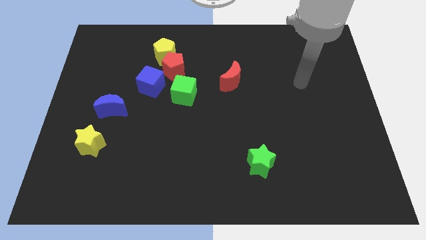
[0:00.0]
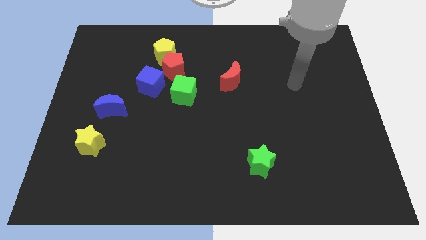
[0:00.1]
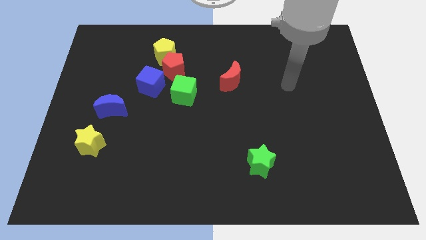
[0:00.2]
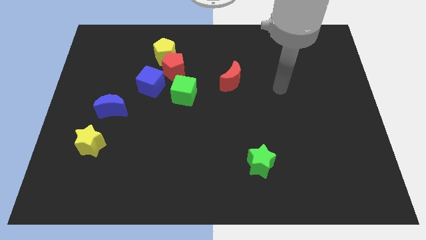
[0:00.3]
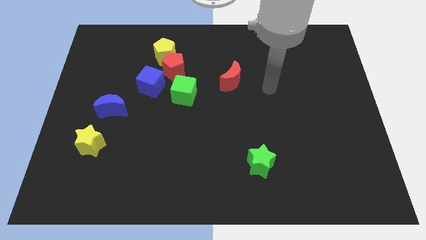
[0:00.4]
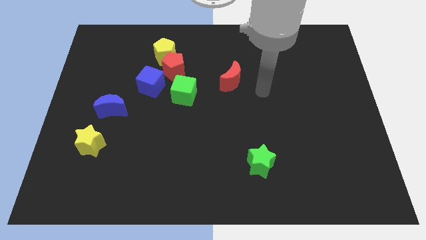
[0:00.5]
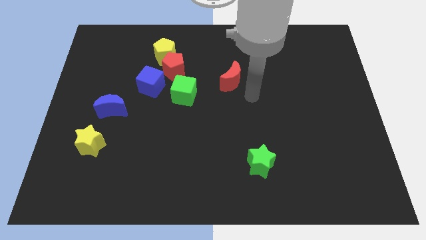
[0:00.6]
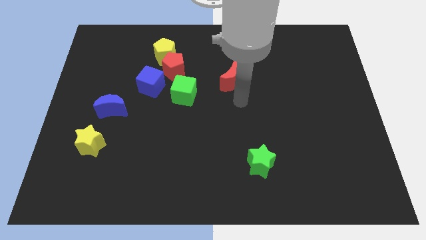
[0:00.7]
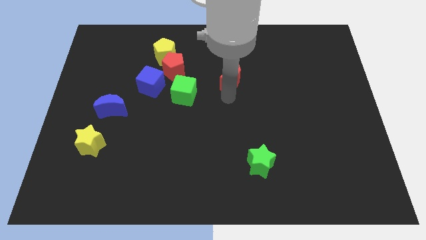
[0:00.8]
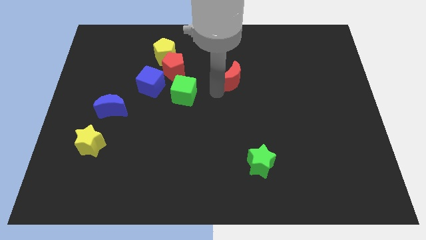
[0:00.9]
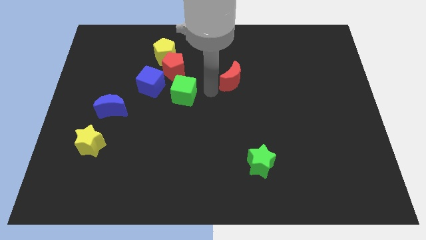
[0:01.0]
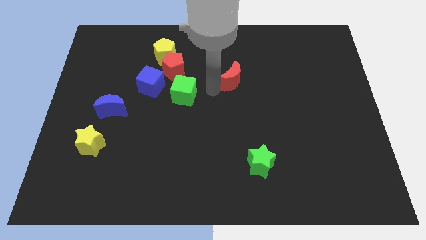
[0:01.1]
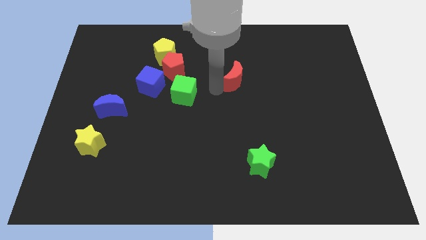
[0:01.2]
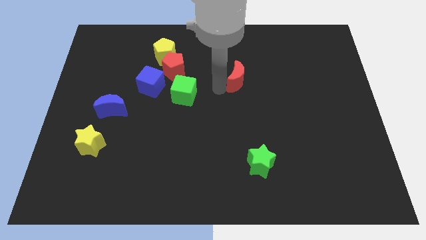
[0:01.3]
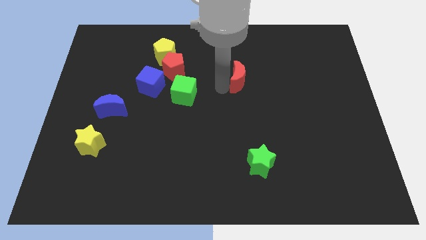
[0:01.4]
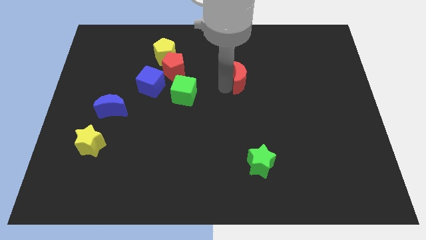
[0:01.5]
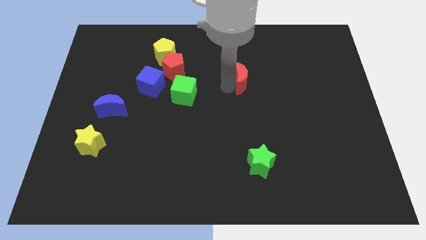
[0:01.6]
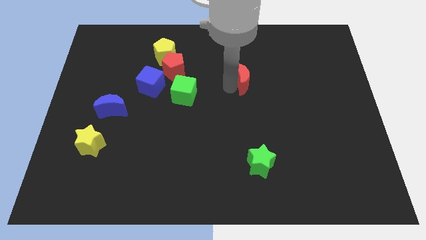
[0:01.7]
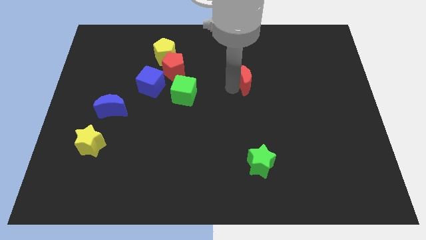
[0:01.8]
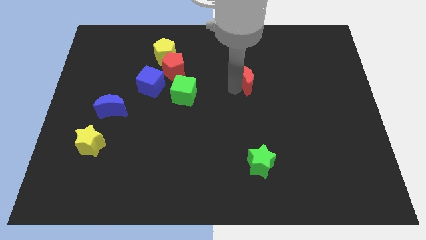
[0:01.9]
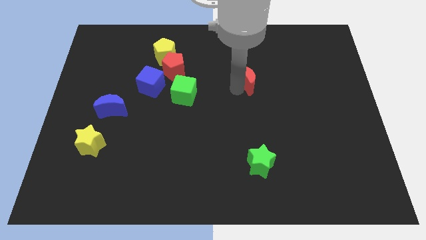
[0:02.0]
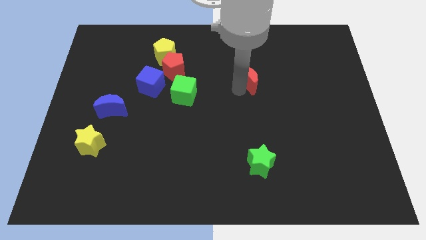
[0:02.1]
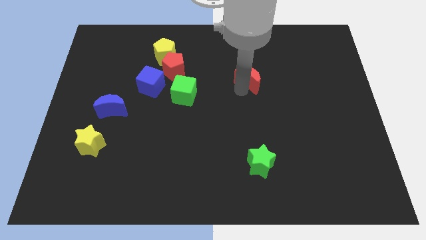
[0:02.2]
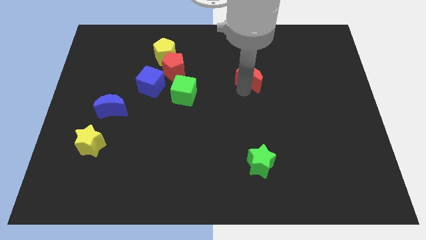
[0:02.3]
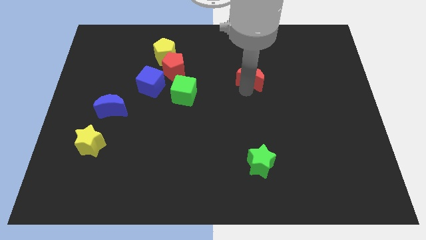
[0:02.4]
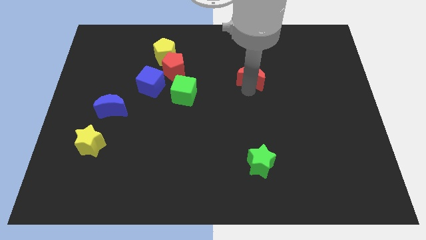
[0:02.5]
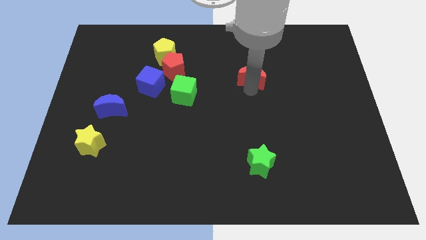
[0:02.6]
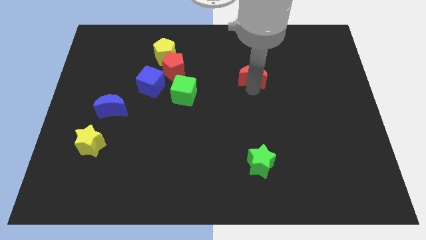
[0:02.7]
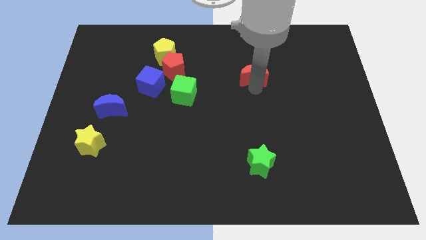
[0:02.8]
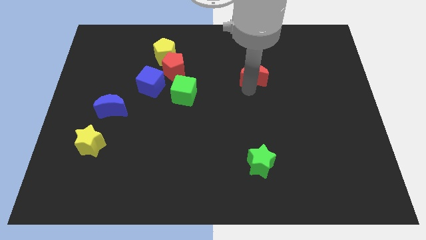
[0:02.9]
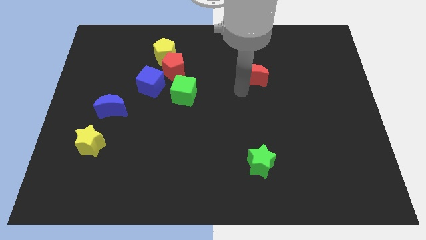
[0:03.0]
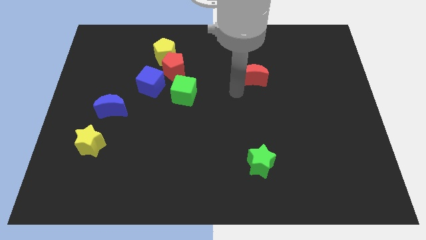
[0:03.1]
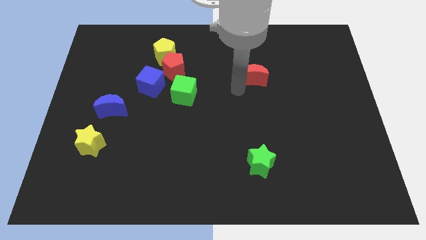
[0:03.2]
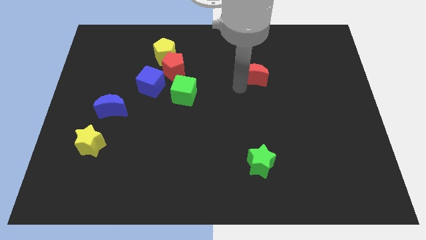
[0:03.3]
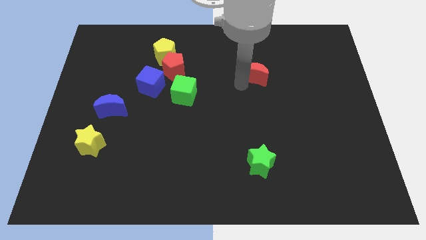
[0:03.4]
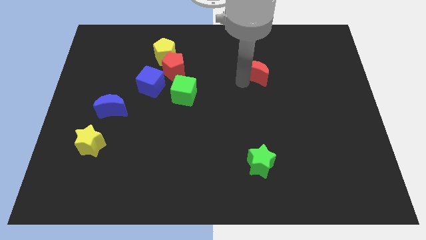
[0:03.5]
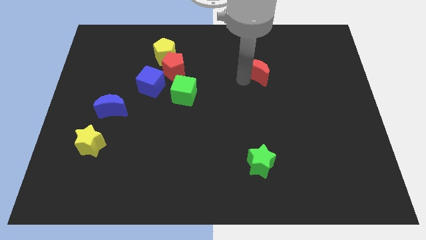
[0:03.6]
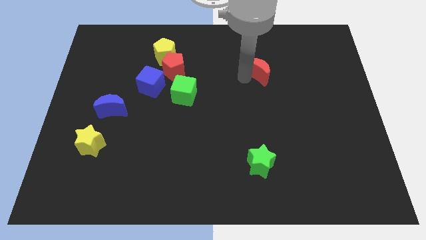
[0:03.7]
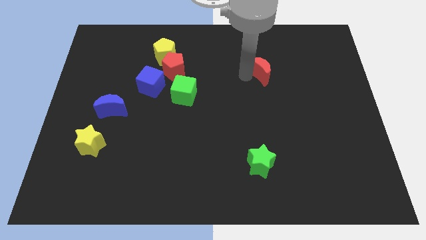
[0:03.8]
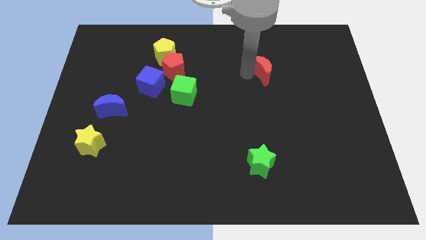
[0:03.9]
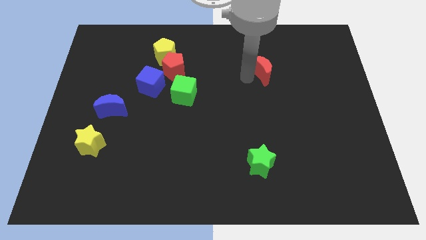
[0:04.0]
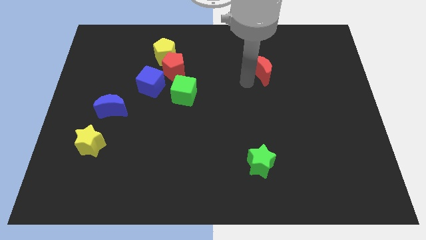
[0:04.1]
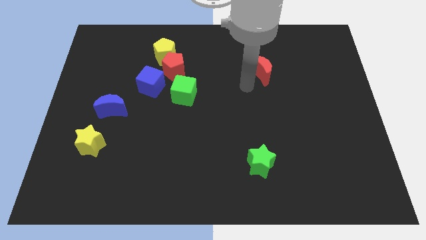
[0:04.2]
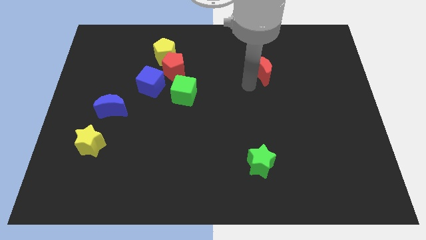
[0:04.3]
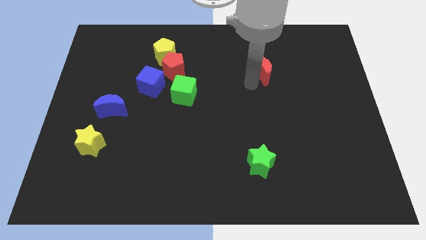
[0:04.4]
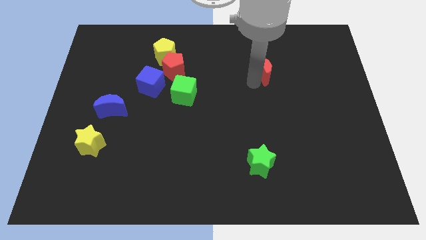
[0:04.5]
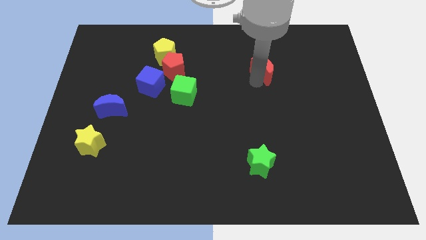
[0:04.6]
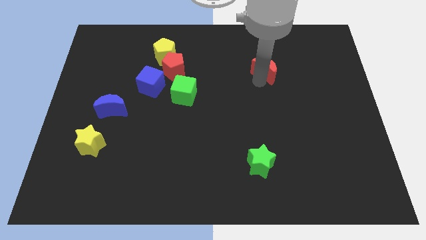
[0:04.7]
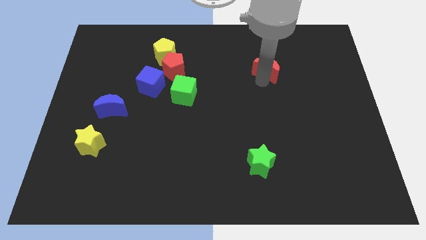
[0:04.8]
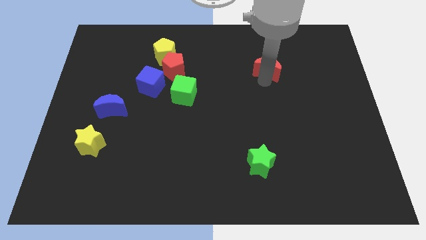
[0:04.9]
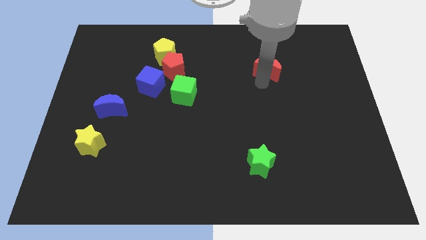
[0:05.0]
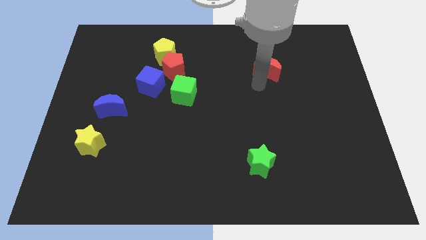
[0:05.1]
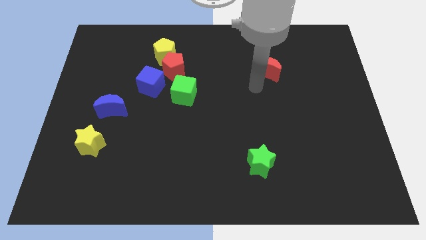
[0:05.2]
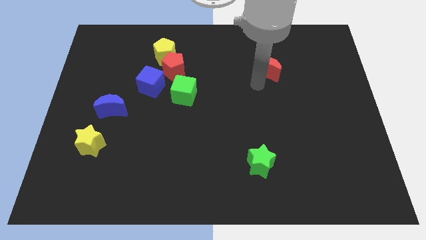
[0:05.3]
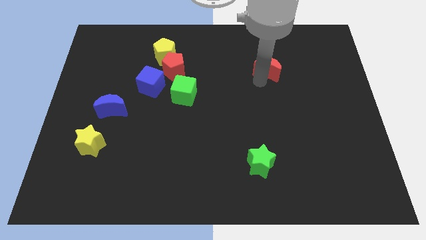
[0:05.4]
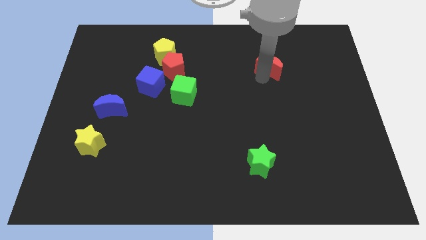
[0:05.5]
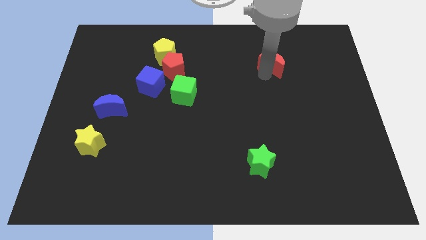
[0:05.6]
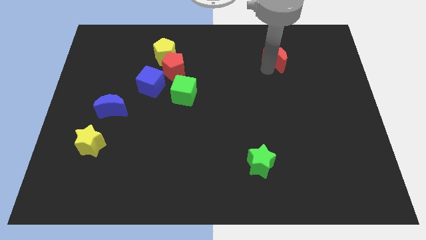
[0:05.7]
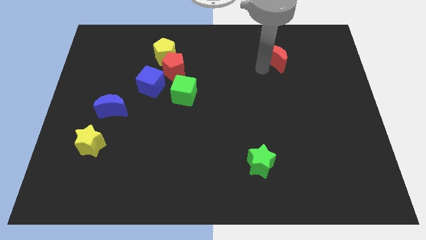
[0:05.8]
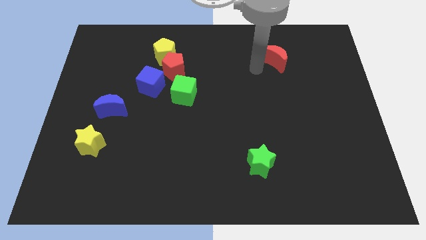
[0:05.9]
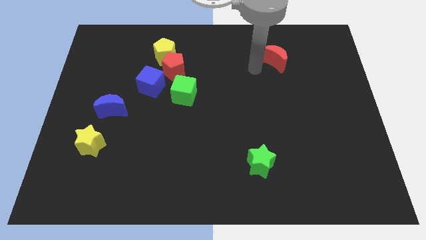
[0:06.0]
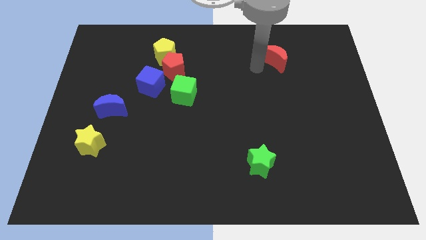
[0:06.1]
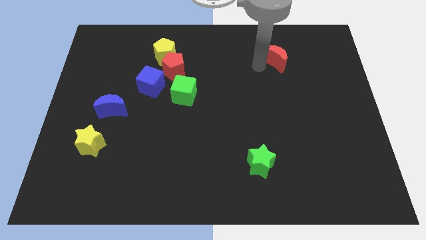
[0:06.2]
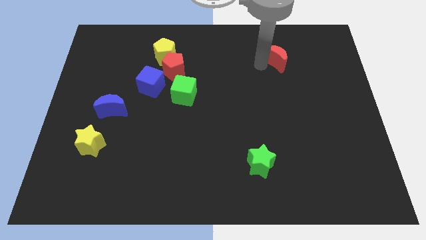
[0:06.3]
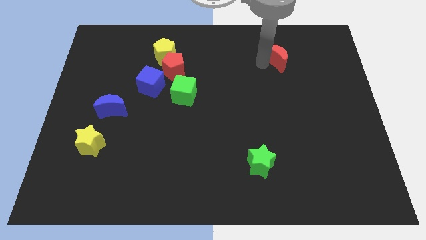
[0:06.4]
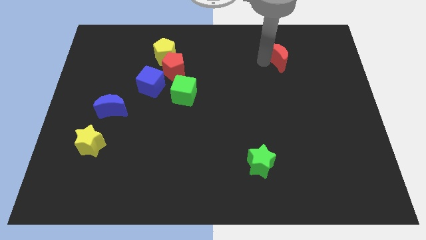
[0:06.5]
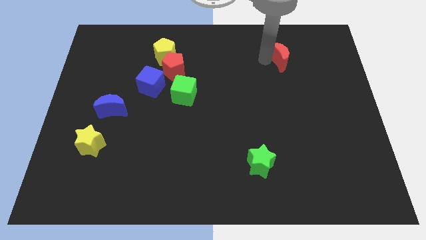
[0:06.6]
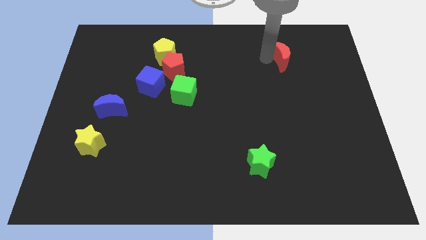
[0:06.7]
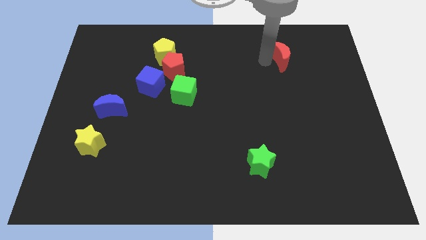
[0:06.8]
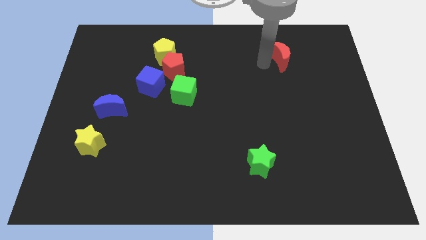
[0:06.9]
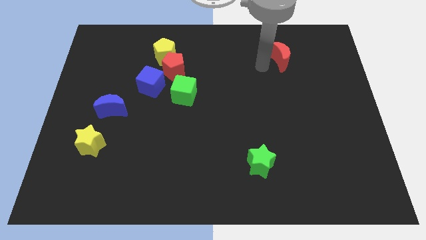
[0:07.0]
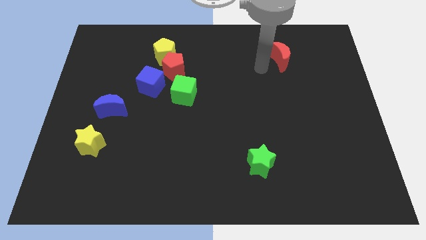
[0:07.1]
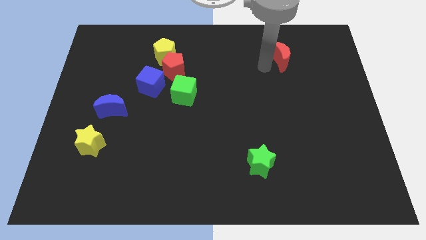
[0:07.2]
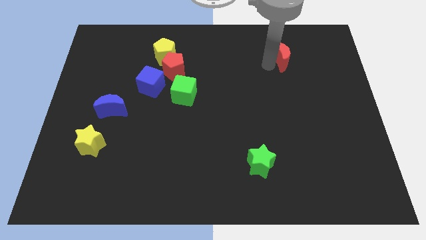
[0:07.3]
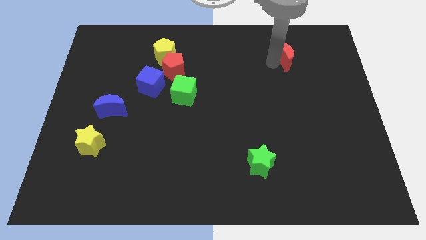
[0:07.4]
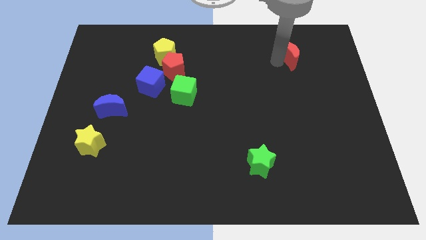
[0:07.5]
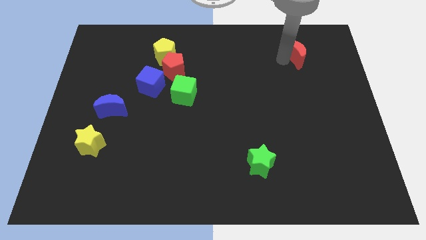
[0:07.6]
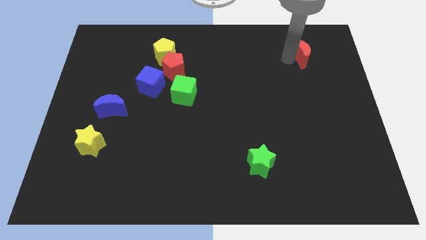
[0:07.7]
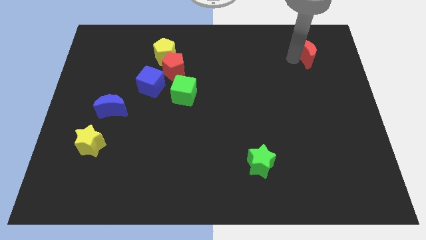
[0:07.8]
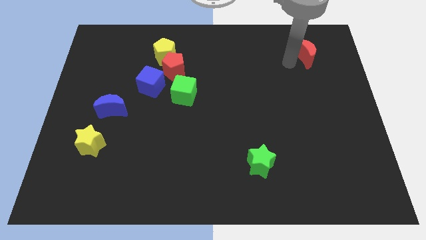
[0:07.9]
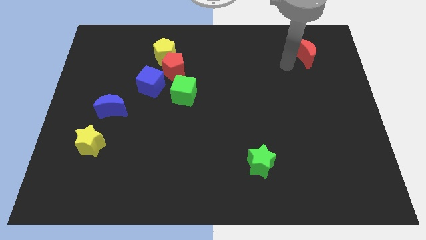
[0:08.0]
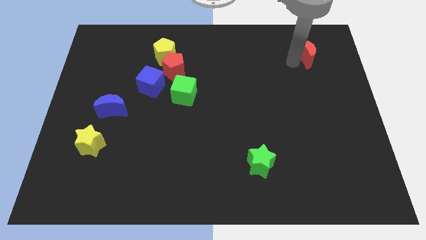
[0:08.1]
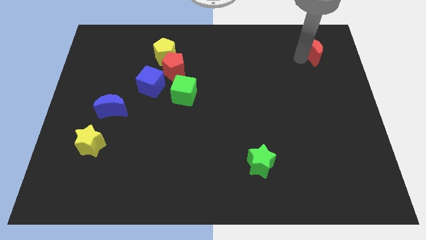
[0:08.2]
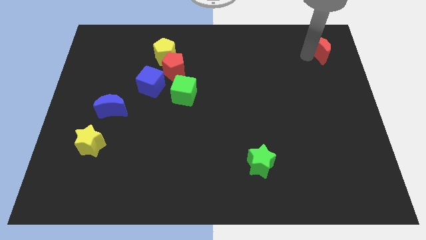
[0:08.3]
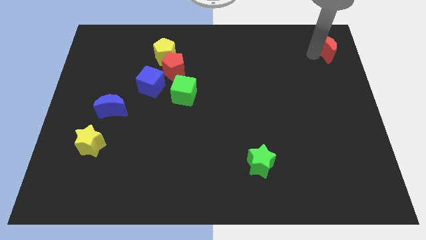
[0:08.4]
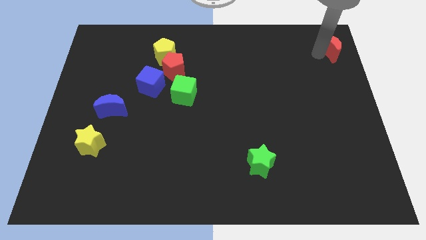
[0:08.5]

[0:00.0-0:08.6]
slide the red moon to the top right
